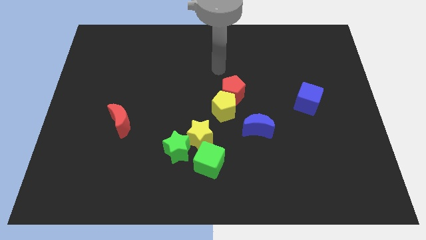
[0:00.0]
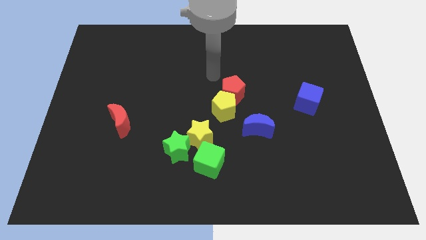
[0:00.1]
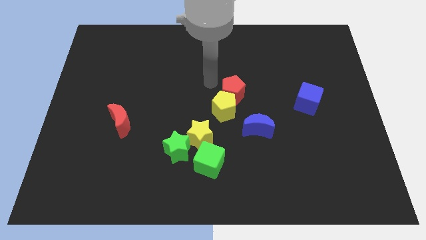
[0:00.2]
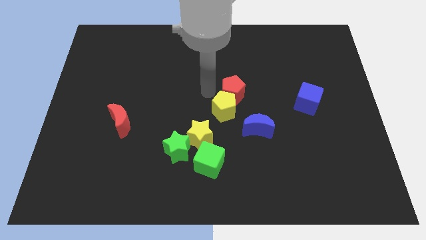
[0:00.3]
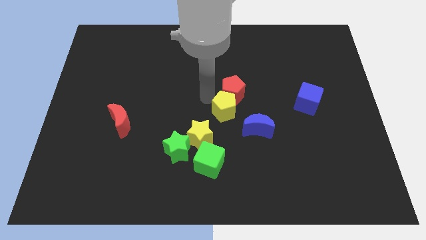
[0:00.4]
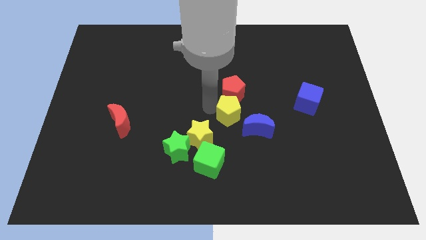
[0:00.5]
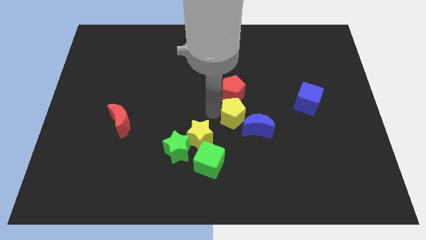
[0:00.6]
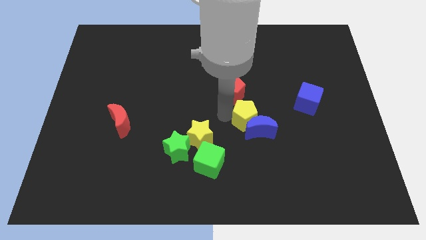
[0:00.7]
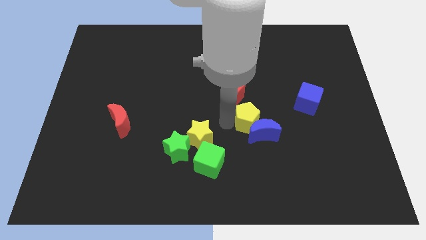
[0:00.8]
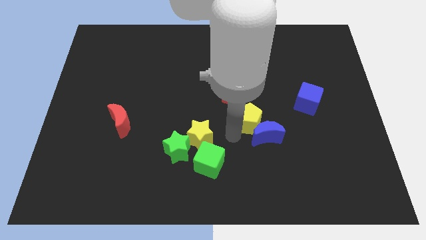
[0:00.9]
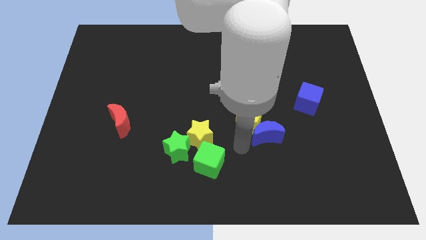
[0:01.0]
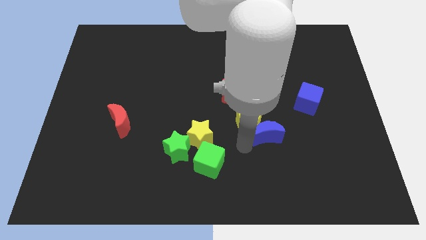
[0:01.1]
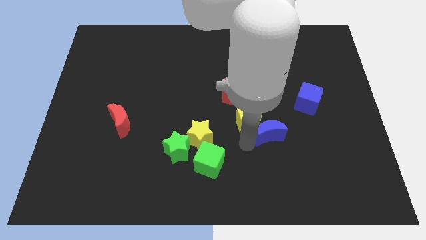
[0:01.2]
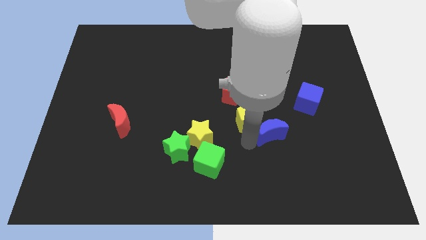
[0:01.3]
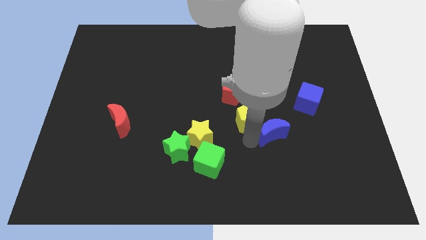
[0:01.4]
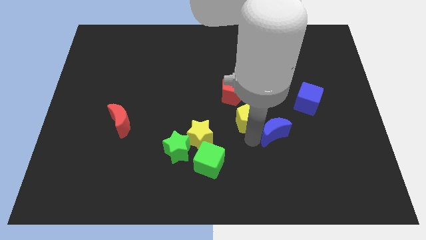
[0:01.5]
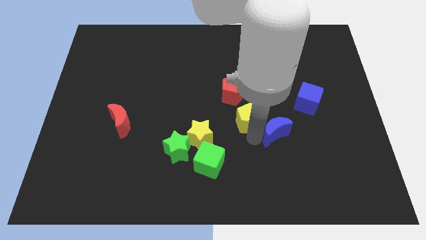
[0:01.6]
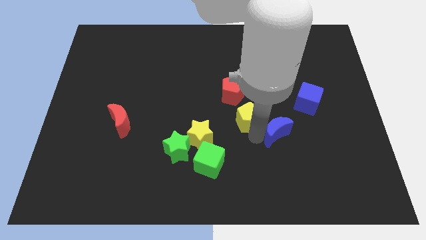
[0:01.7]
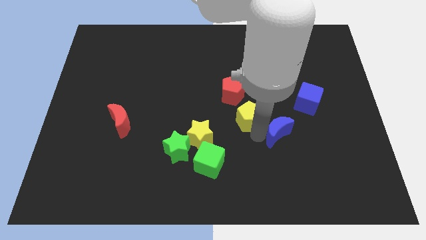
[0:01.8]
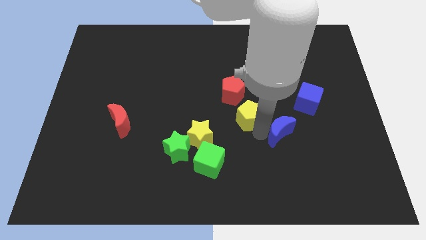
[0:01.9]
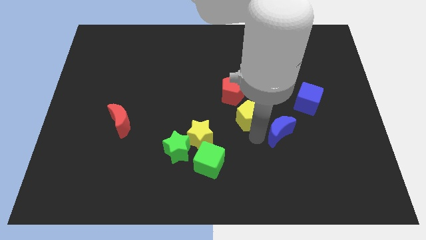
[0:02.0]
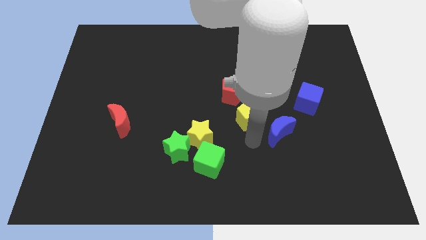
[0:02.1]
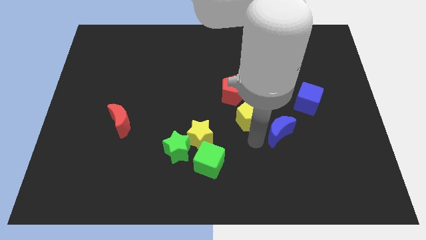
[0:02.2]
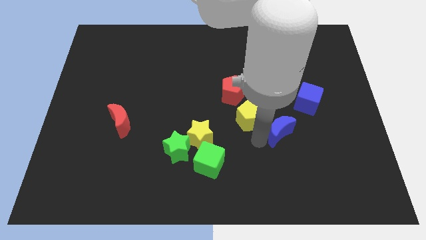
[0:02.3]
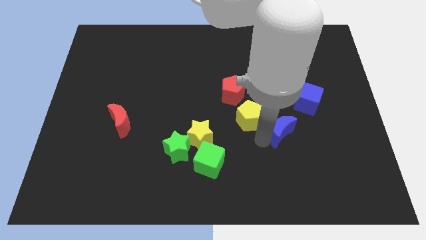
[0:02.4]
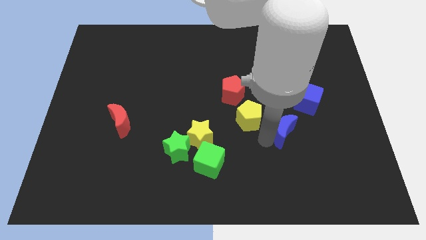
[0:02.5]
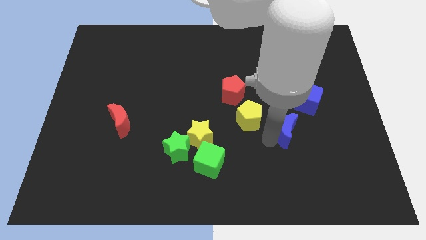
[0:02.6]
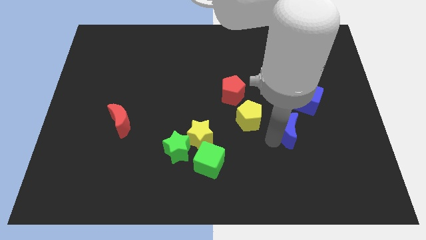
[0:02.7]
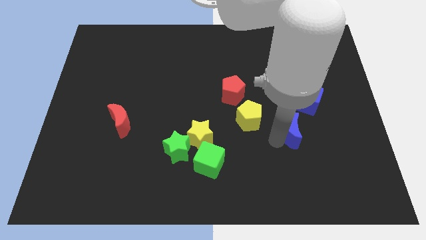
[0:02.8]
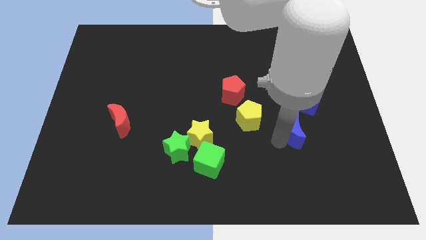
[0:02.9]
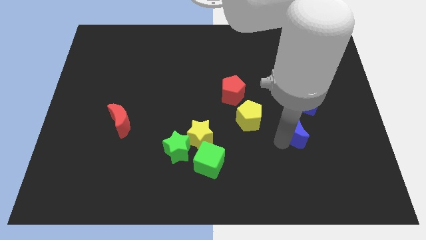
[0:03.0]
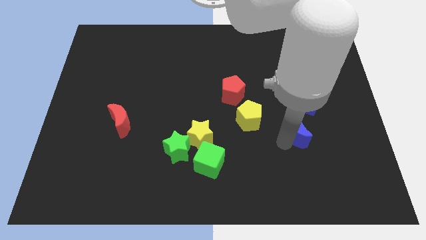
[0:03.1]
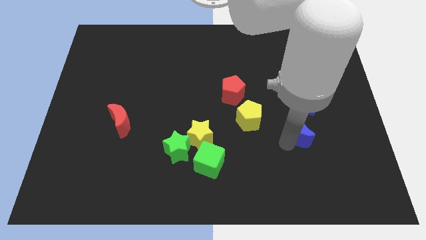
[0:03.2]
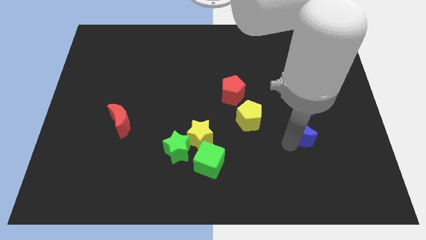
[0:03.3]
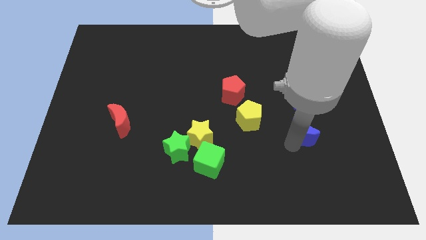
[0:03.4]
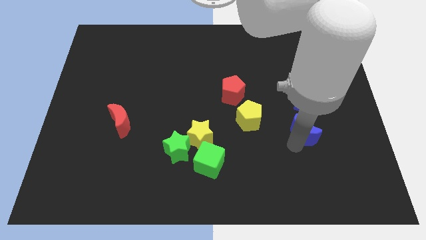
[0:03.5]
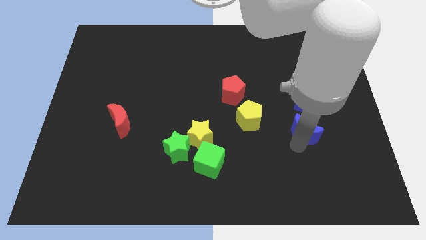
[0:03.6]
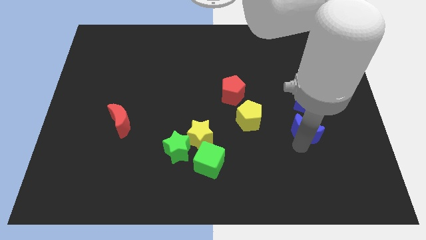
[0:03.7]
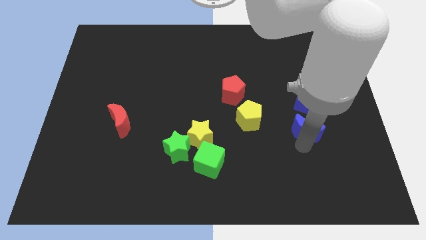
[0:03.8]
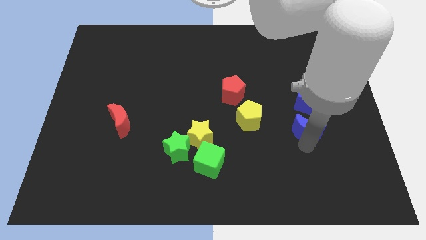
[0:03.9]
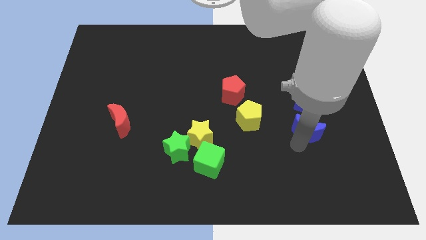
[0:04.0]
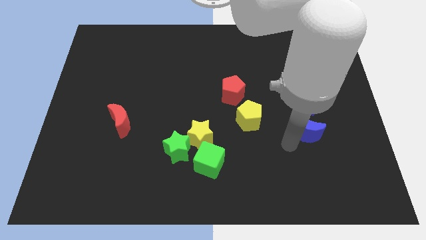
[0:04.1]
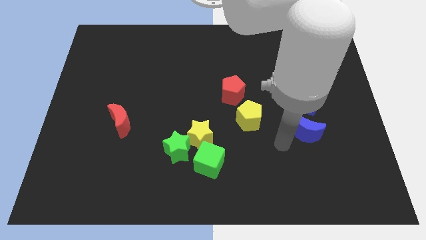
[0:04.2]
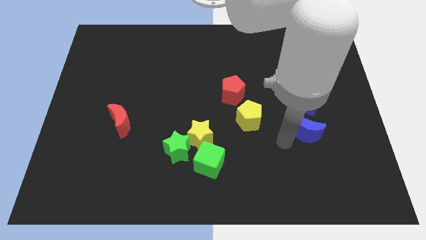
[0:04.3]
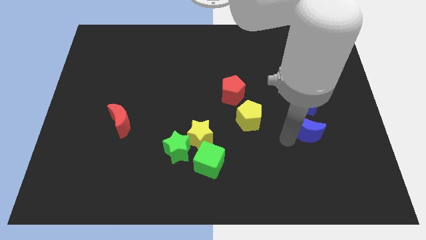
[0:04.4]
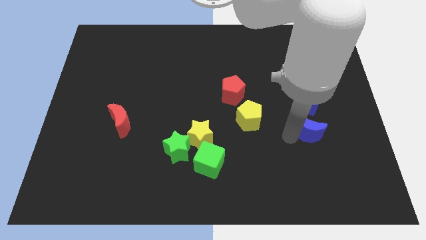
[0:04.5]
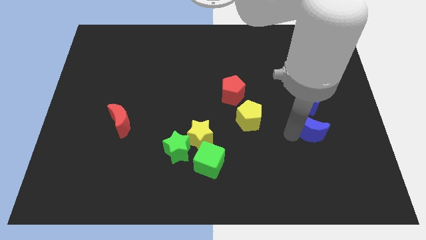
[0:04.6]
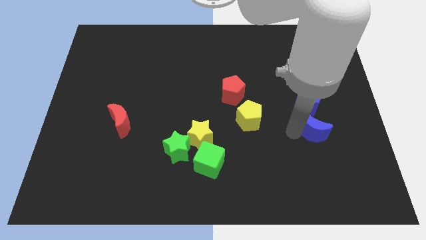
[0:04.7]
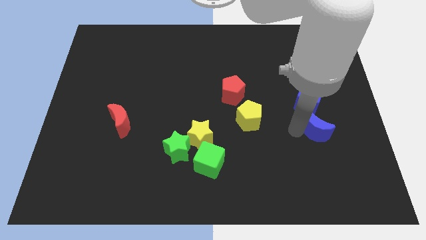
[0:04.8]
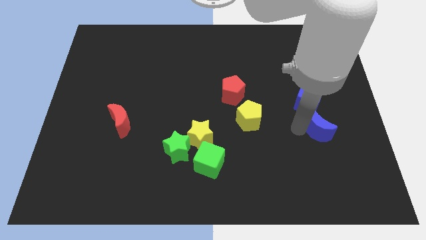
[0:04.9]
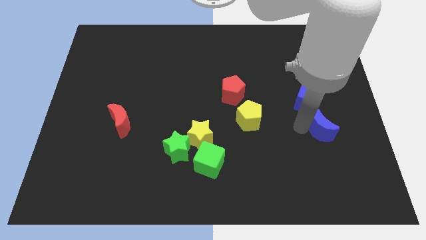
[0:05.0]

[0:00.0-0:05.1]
move the blue moon diagonally down and to the right of the blue cube

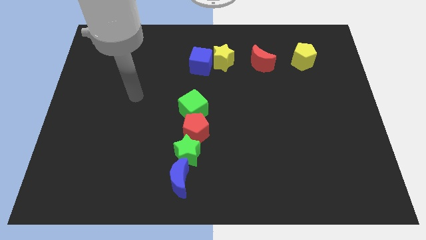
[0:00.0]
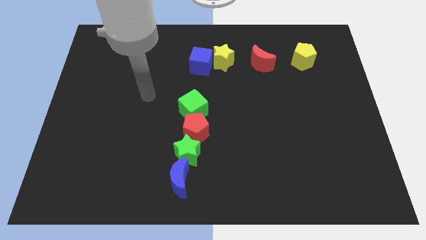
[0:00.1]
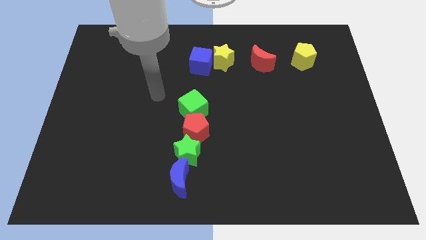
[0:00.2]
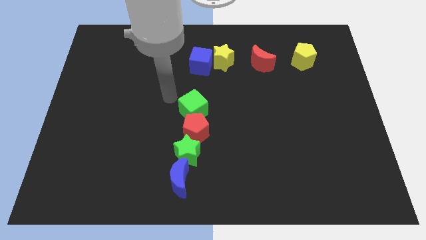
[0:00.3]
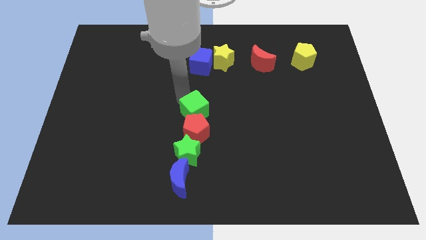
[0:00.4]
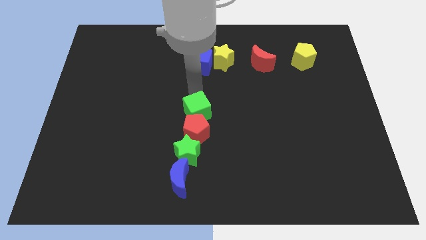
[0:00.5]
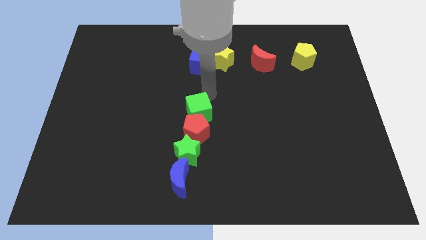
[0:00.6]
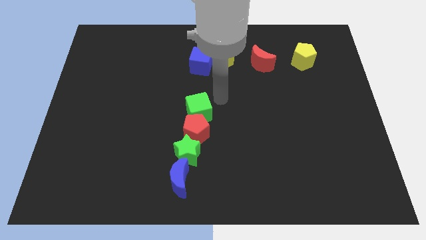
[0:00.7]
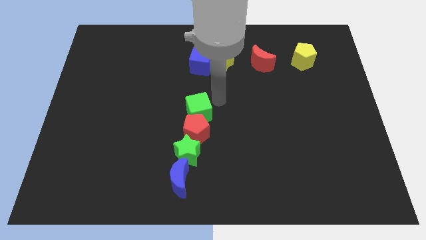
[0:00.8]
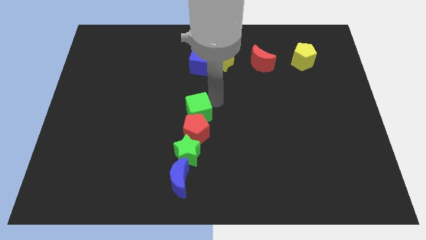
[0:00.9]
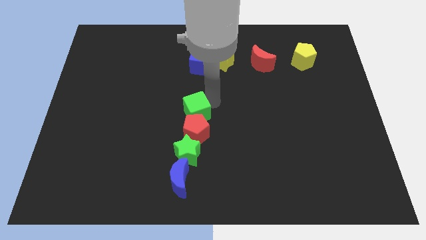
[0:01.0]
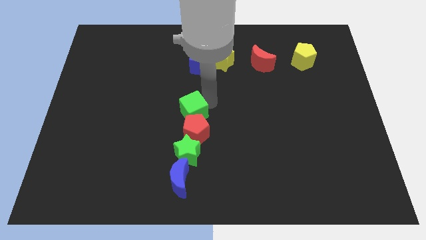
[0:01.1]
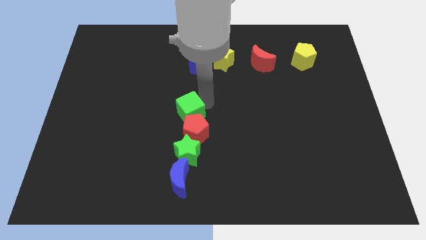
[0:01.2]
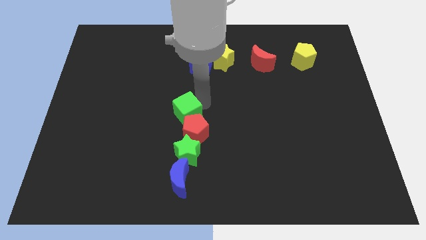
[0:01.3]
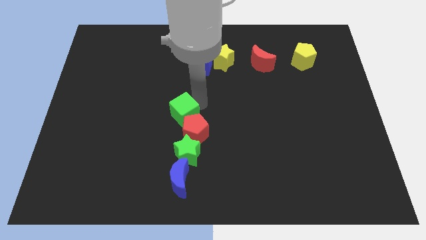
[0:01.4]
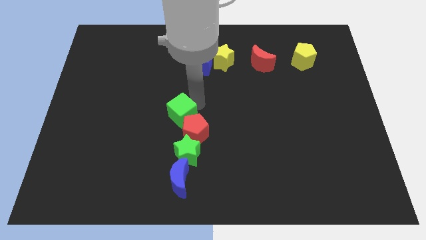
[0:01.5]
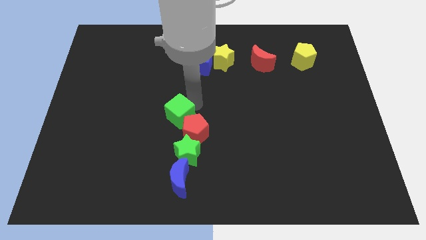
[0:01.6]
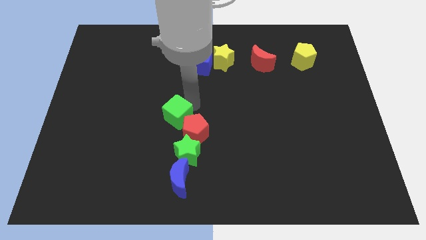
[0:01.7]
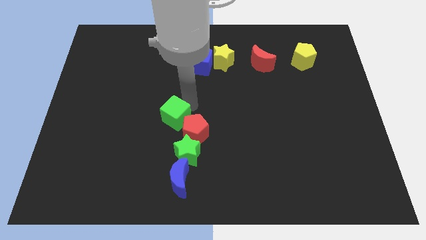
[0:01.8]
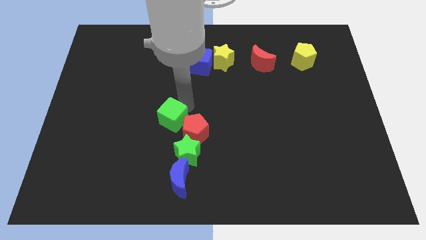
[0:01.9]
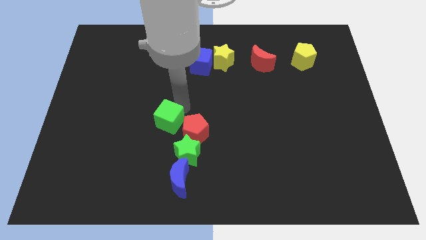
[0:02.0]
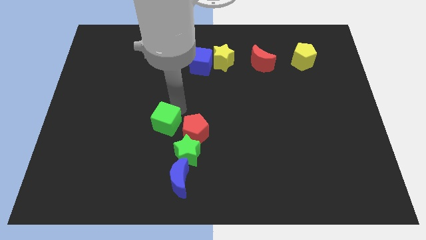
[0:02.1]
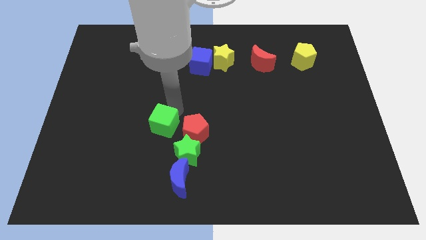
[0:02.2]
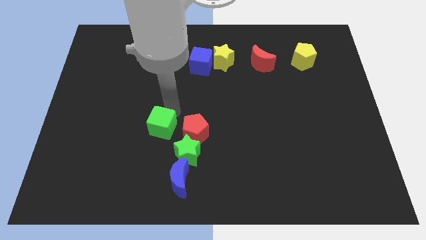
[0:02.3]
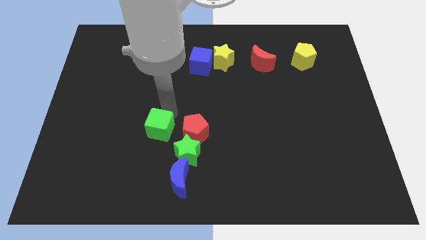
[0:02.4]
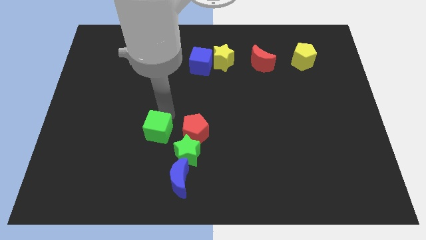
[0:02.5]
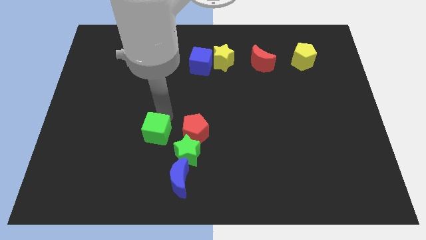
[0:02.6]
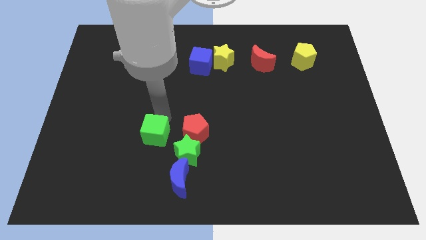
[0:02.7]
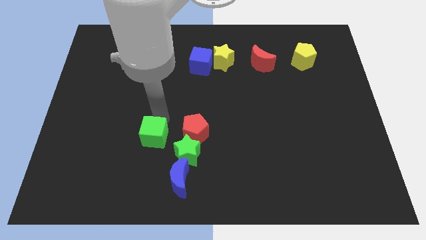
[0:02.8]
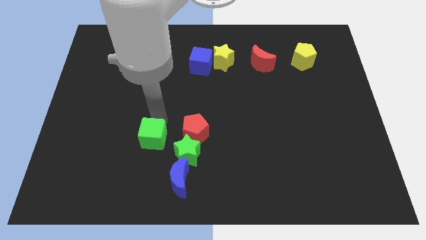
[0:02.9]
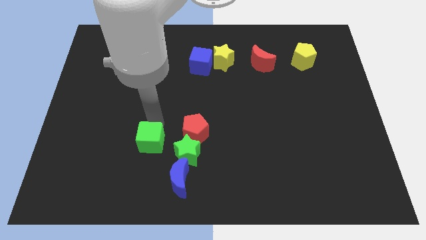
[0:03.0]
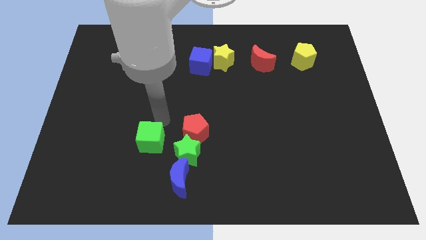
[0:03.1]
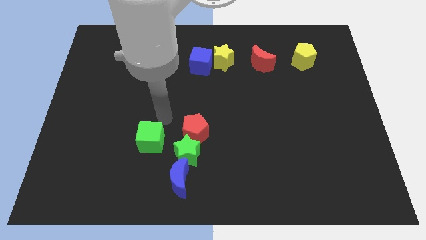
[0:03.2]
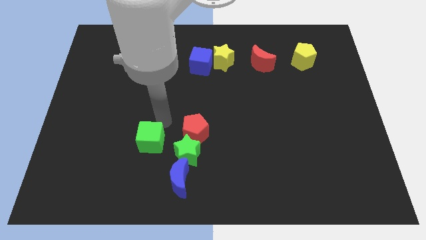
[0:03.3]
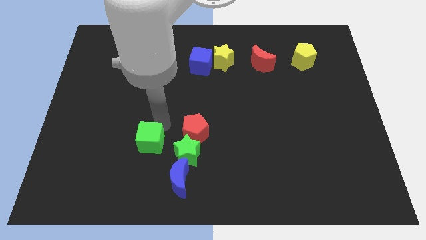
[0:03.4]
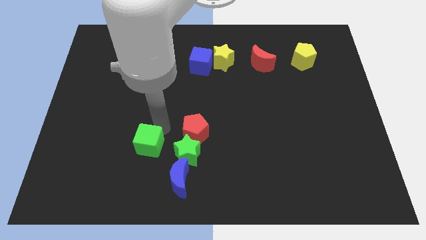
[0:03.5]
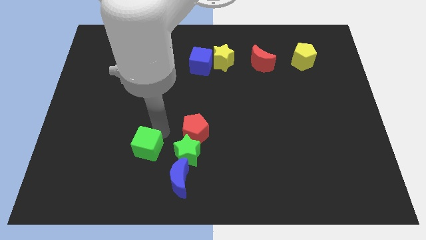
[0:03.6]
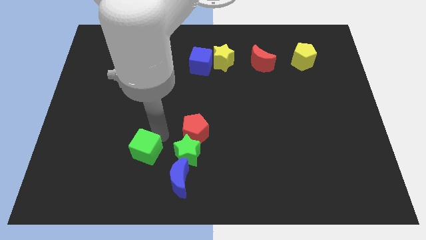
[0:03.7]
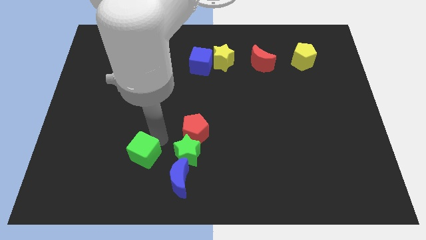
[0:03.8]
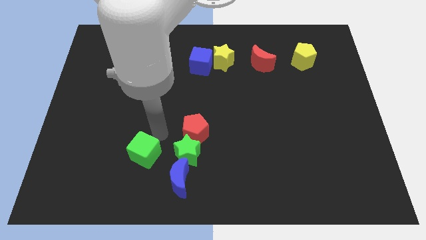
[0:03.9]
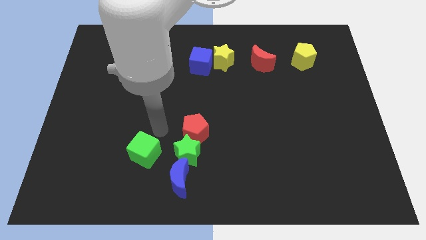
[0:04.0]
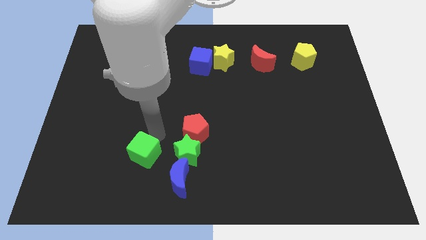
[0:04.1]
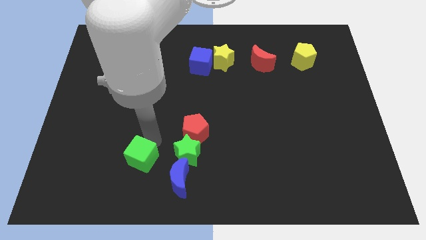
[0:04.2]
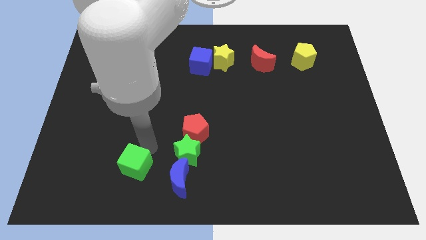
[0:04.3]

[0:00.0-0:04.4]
push the green cube just left of the blue moon
